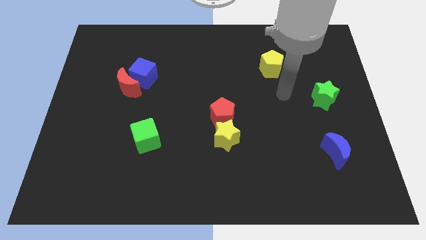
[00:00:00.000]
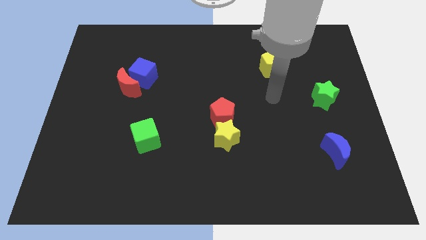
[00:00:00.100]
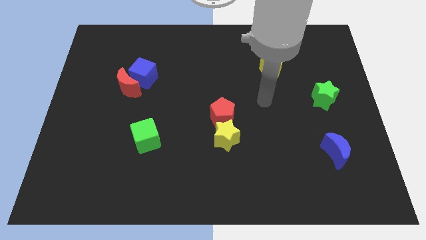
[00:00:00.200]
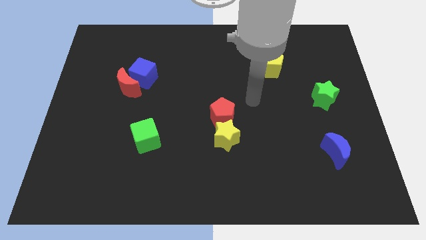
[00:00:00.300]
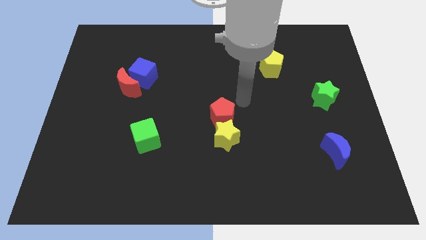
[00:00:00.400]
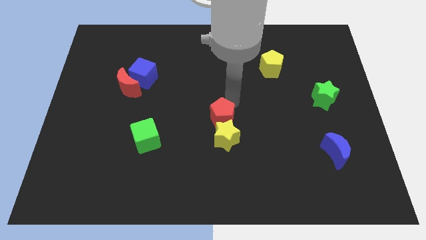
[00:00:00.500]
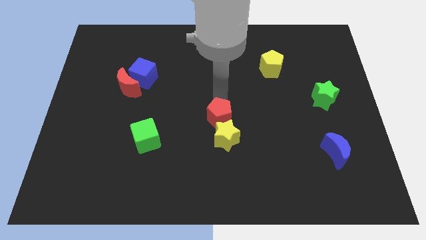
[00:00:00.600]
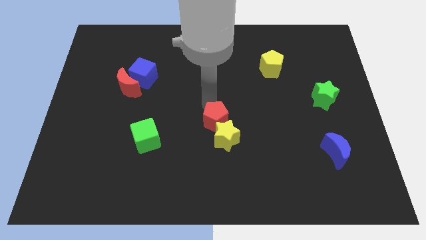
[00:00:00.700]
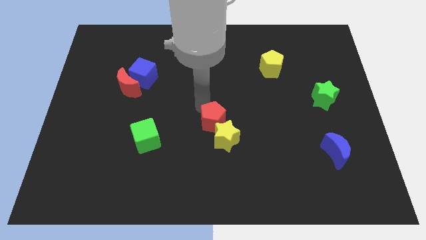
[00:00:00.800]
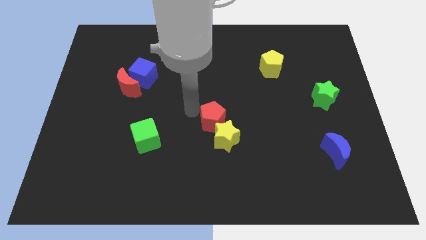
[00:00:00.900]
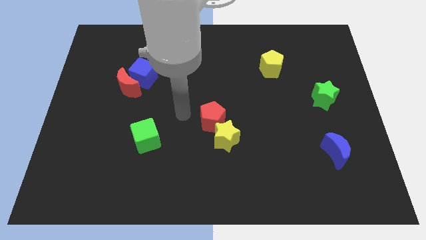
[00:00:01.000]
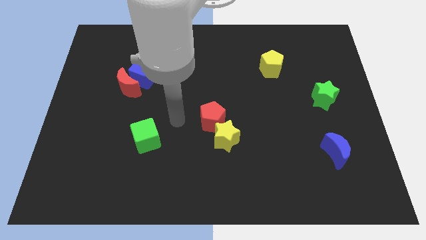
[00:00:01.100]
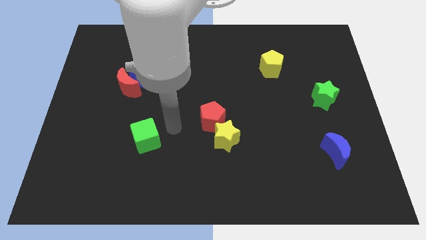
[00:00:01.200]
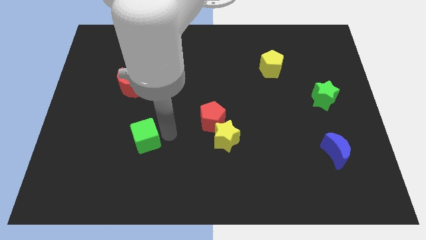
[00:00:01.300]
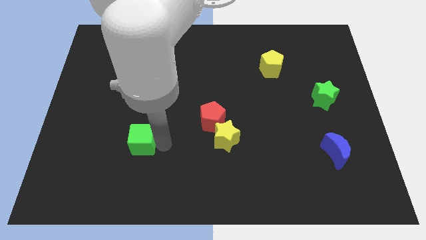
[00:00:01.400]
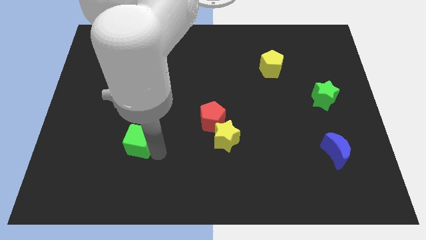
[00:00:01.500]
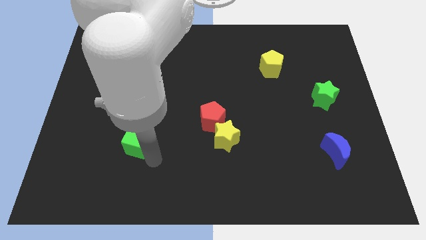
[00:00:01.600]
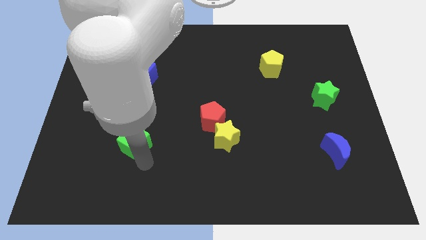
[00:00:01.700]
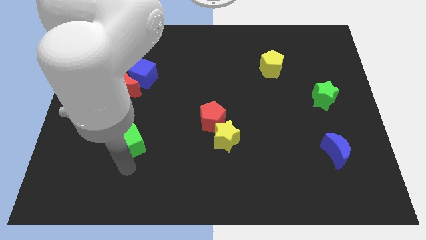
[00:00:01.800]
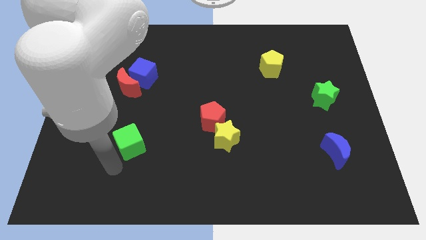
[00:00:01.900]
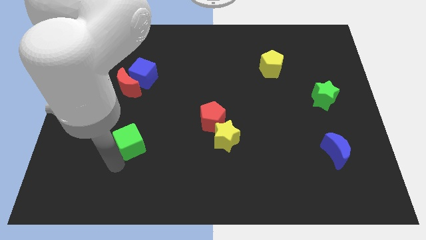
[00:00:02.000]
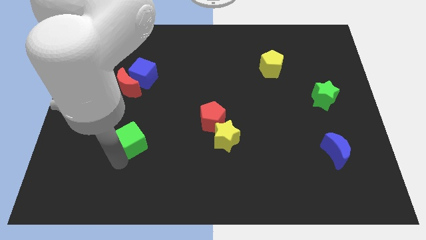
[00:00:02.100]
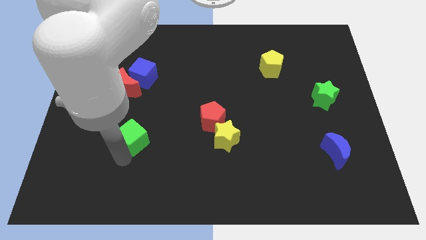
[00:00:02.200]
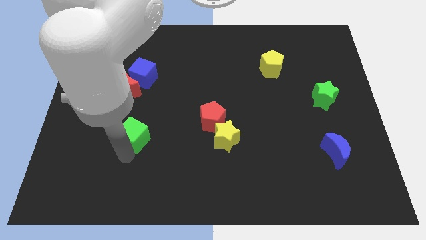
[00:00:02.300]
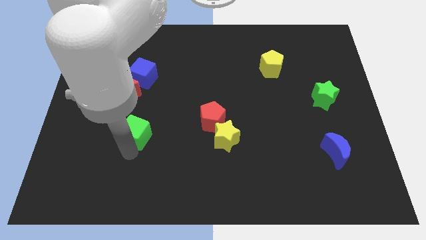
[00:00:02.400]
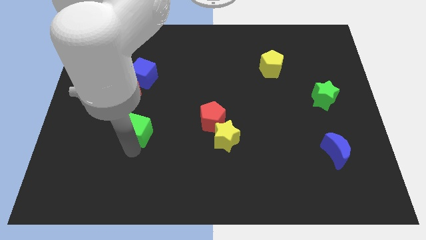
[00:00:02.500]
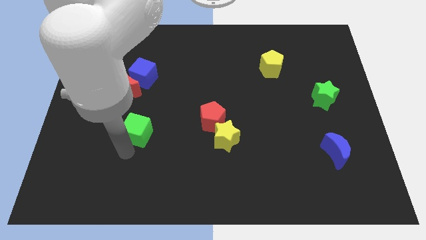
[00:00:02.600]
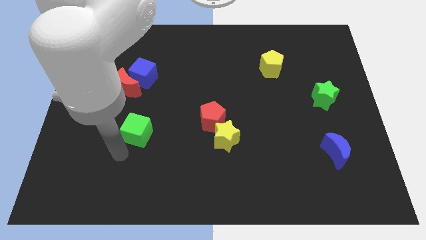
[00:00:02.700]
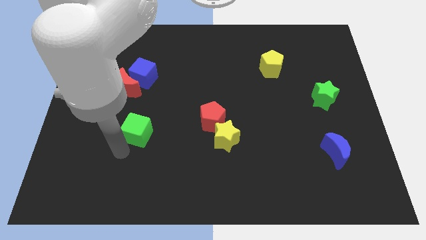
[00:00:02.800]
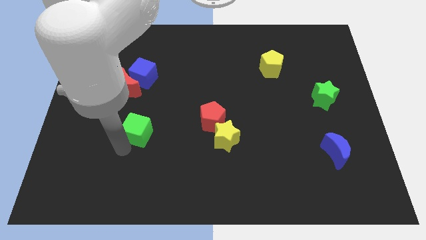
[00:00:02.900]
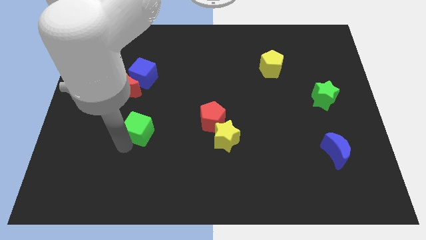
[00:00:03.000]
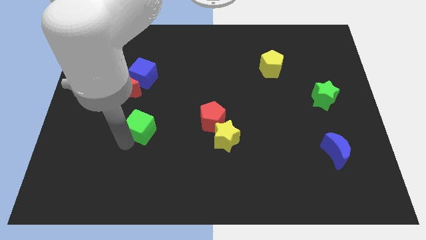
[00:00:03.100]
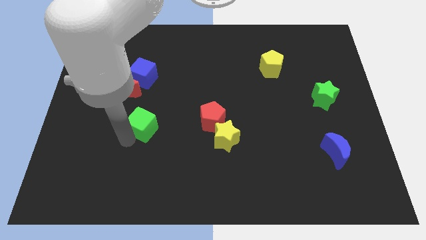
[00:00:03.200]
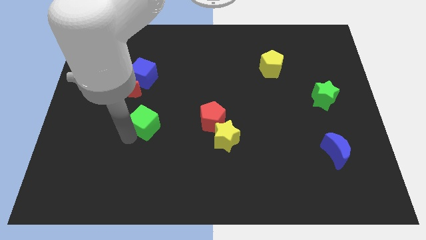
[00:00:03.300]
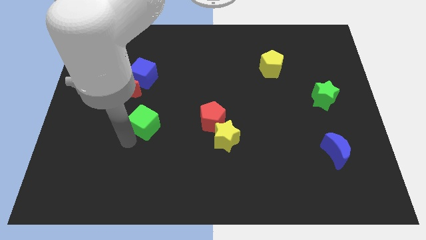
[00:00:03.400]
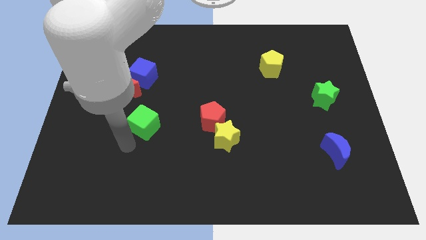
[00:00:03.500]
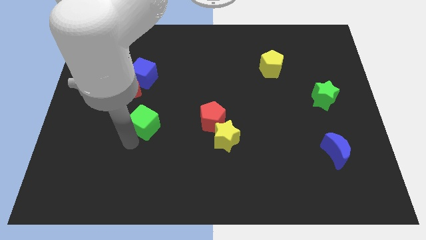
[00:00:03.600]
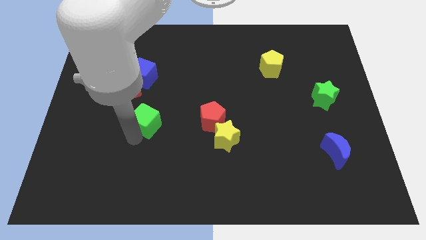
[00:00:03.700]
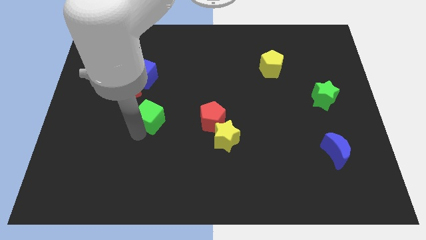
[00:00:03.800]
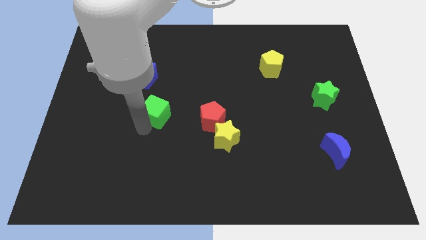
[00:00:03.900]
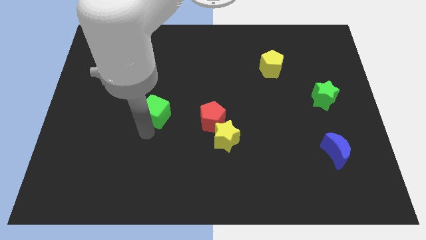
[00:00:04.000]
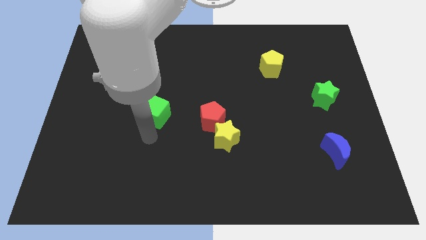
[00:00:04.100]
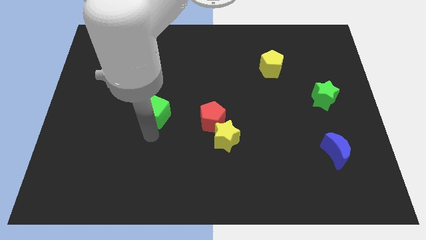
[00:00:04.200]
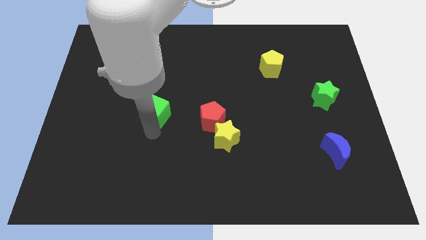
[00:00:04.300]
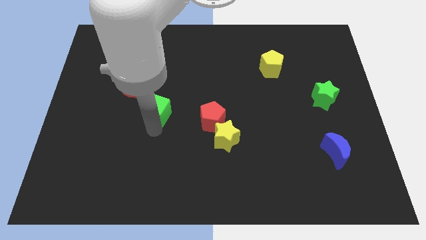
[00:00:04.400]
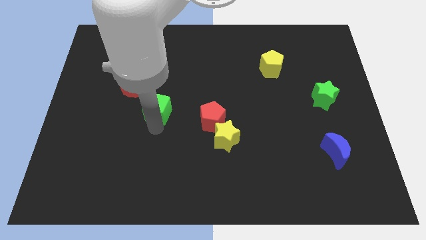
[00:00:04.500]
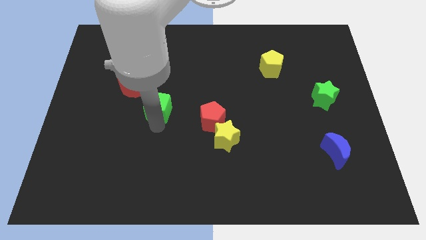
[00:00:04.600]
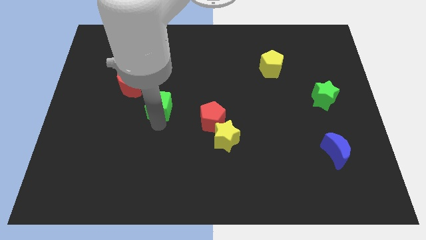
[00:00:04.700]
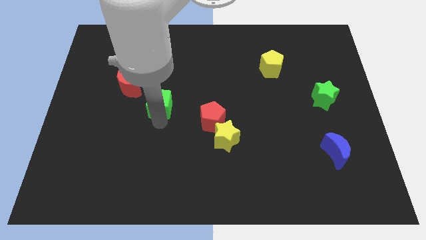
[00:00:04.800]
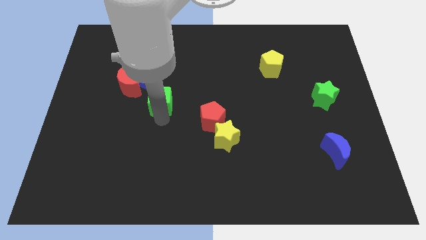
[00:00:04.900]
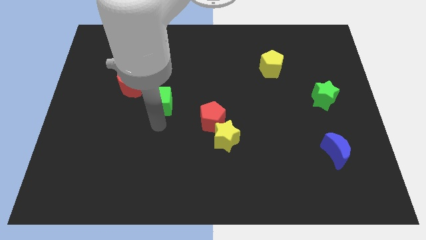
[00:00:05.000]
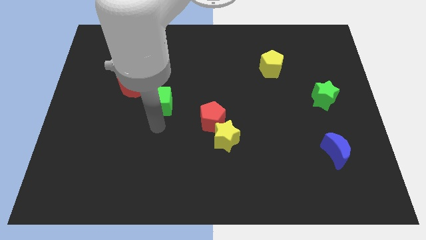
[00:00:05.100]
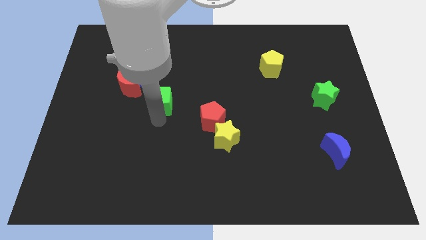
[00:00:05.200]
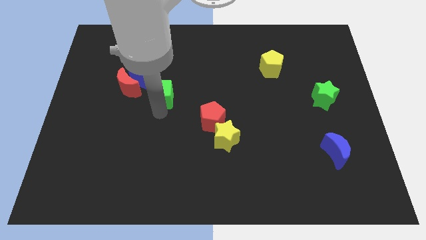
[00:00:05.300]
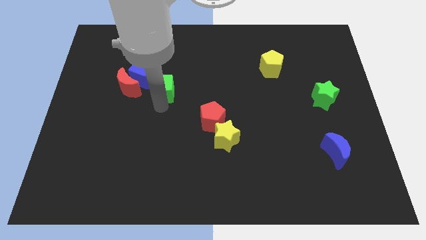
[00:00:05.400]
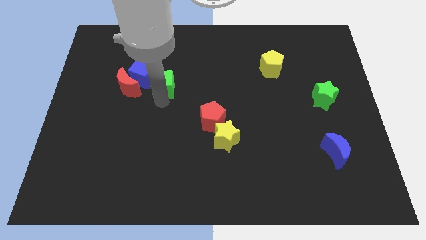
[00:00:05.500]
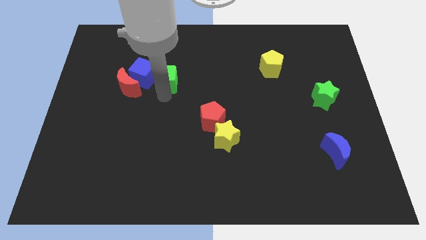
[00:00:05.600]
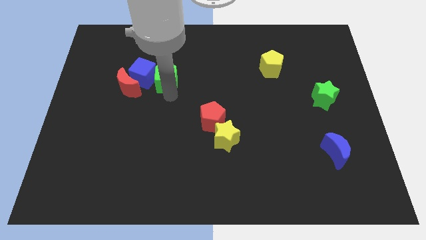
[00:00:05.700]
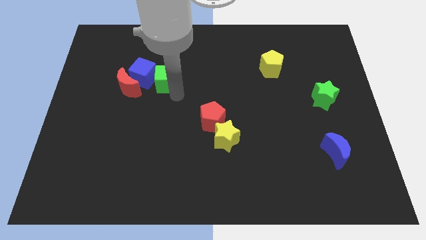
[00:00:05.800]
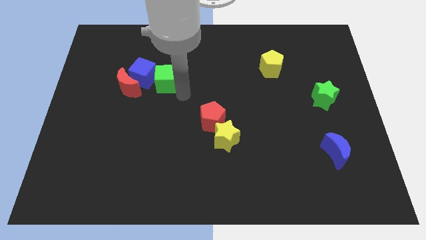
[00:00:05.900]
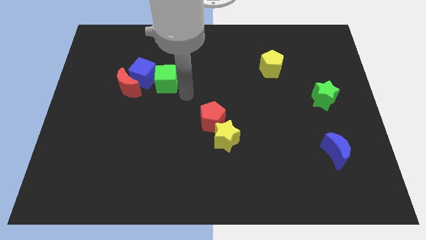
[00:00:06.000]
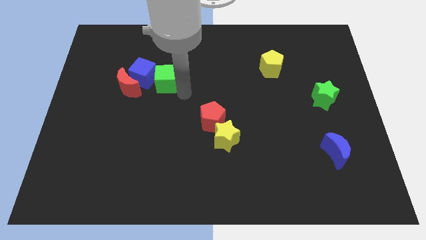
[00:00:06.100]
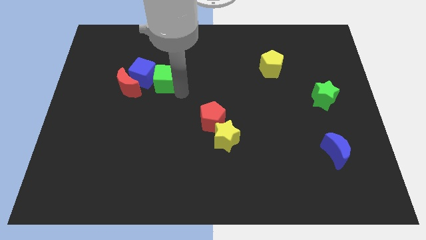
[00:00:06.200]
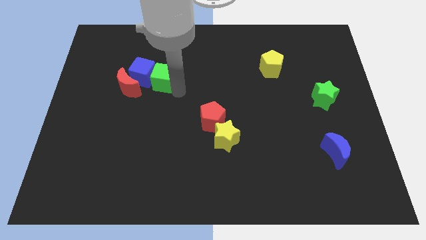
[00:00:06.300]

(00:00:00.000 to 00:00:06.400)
move the green cube to the top right side of the red moon

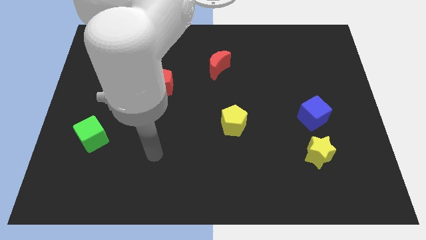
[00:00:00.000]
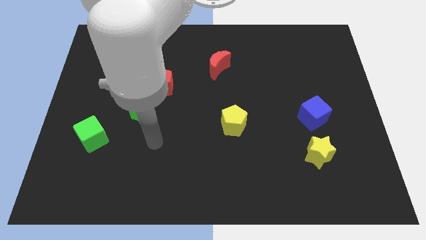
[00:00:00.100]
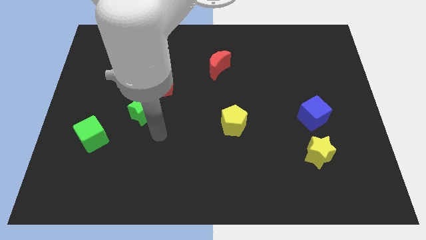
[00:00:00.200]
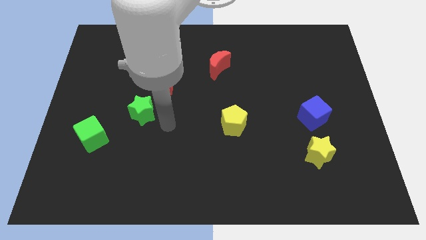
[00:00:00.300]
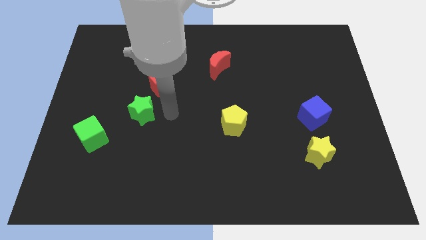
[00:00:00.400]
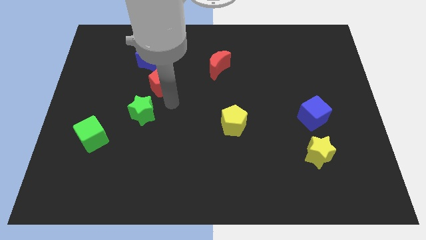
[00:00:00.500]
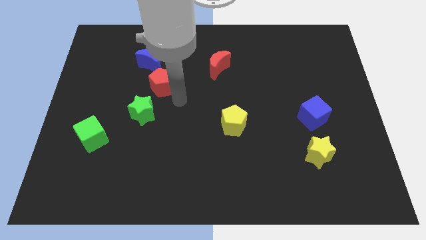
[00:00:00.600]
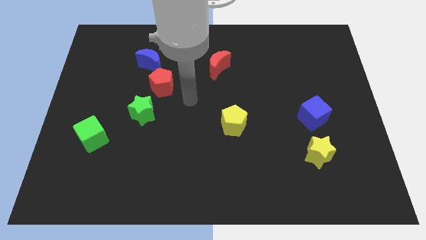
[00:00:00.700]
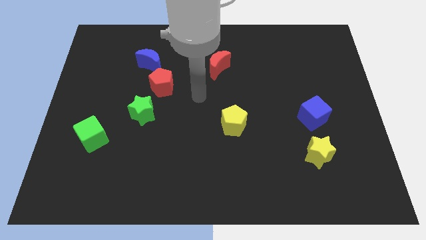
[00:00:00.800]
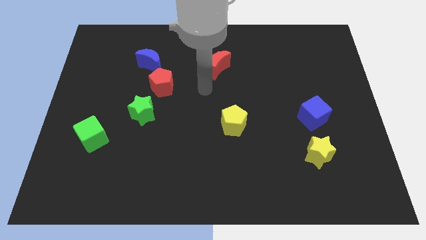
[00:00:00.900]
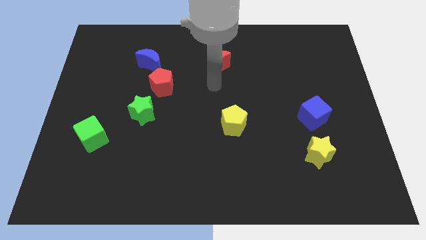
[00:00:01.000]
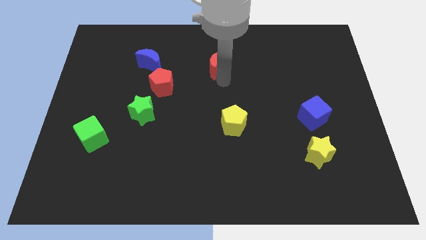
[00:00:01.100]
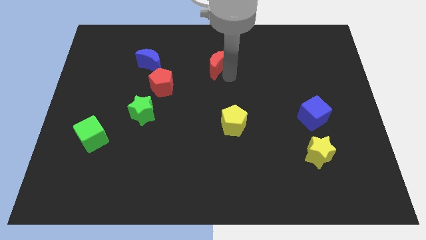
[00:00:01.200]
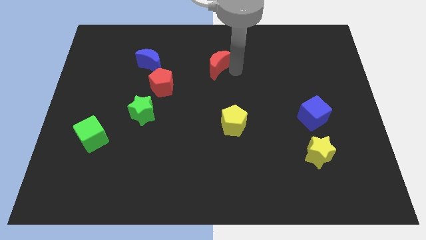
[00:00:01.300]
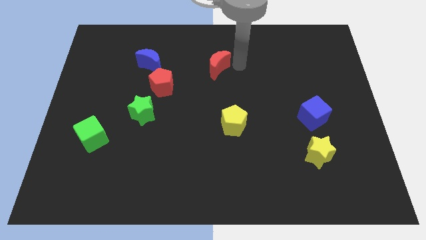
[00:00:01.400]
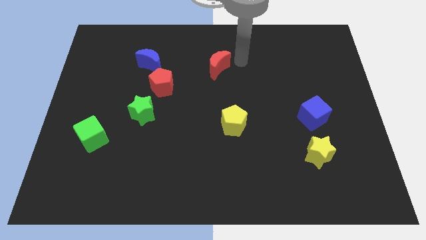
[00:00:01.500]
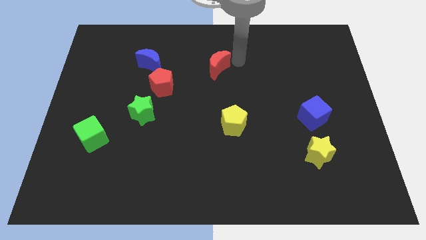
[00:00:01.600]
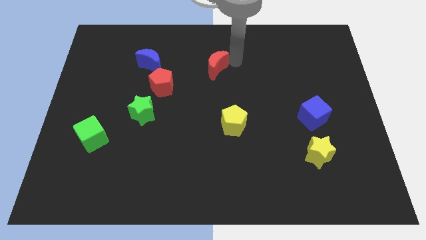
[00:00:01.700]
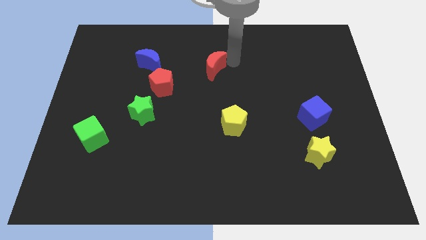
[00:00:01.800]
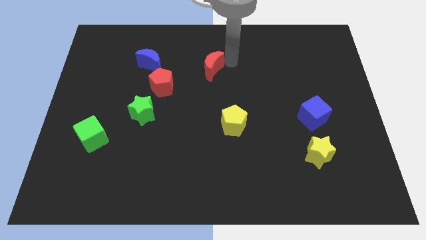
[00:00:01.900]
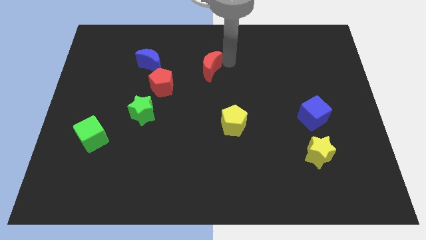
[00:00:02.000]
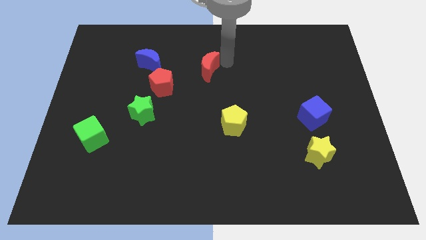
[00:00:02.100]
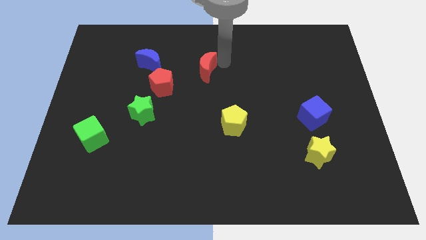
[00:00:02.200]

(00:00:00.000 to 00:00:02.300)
put the red moon diagonally up and to the right of the red pentagon
